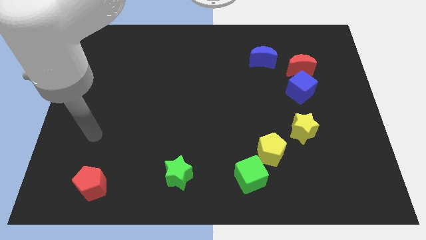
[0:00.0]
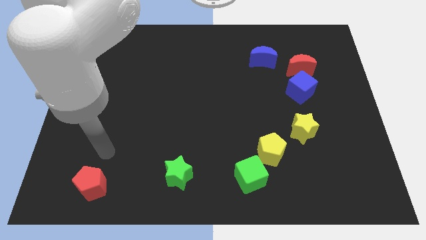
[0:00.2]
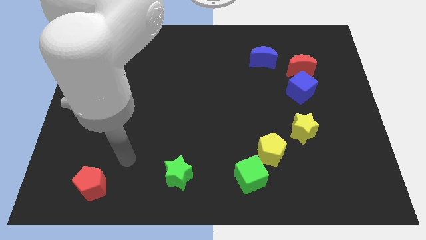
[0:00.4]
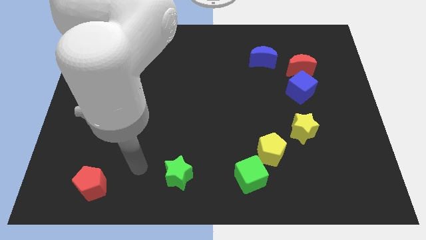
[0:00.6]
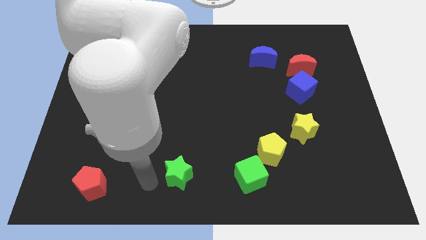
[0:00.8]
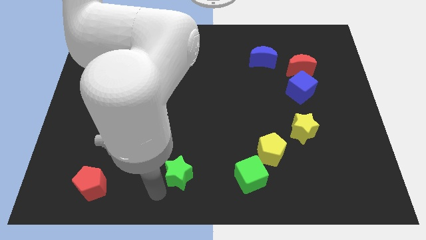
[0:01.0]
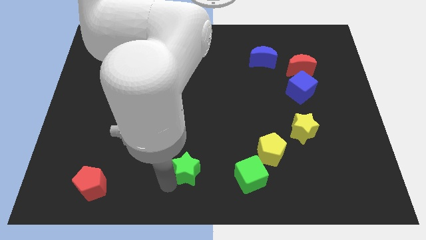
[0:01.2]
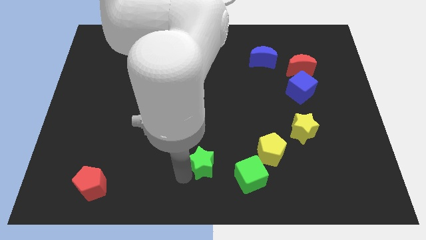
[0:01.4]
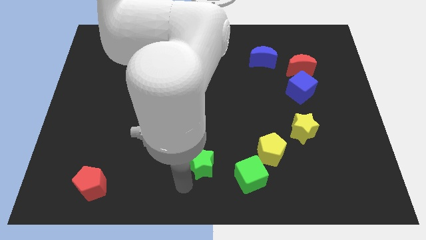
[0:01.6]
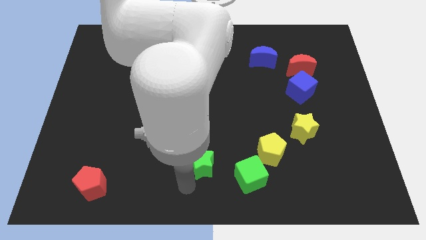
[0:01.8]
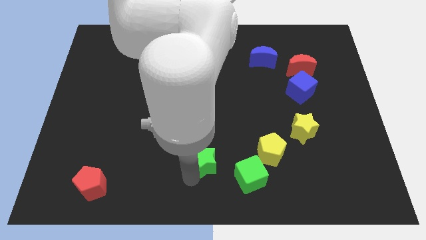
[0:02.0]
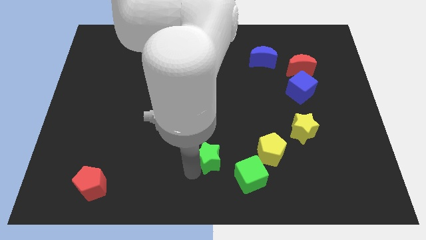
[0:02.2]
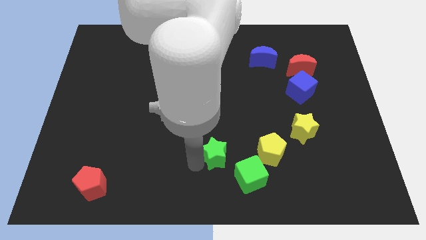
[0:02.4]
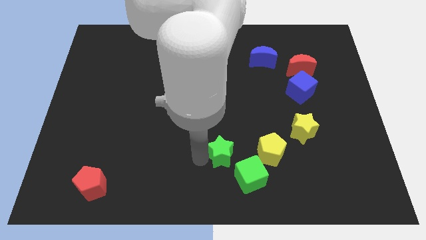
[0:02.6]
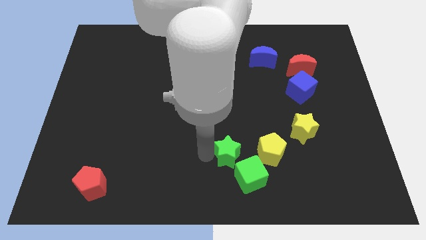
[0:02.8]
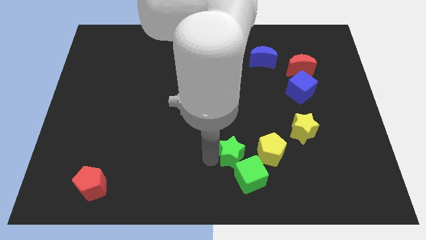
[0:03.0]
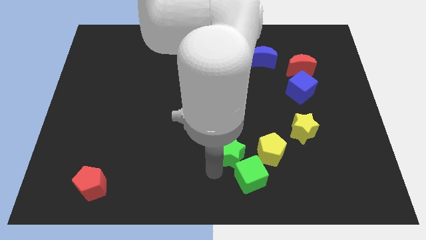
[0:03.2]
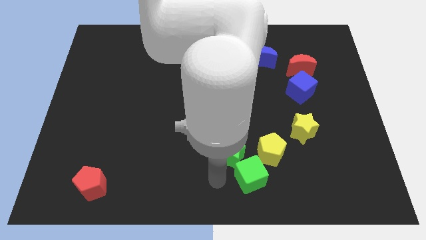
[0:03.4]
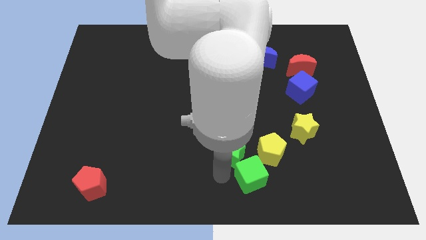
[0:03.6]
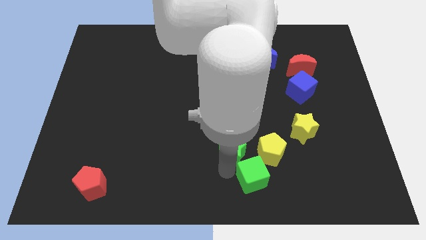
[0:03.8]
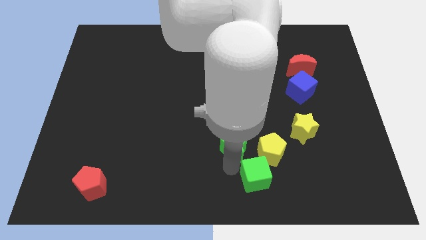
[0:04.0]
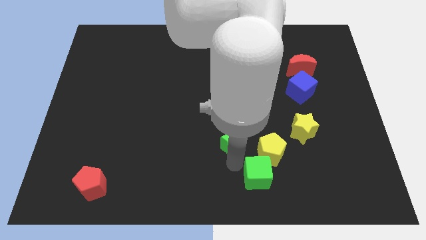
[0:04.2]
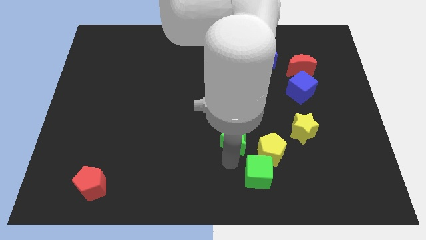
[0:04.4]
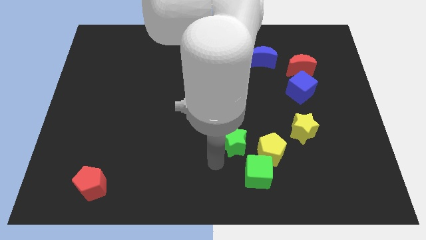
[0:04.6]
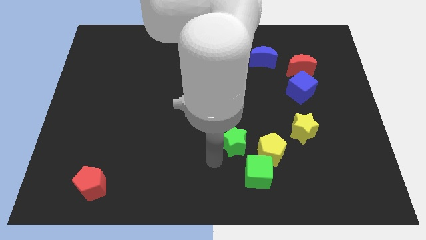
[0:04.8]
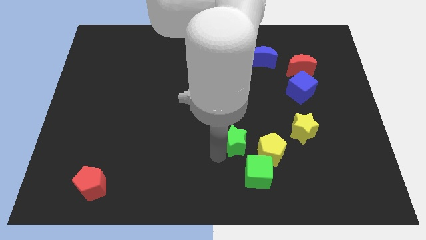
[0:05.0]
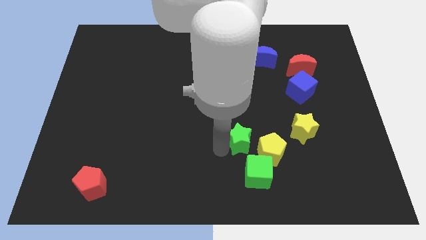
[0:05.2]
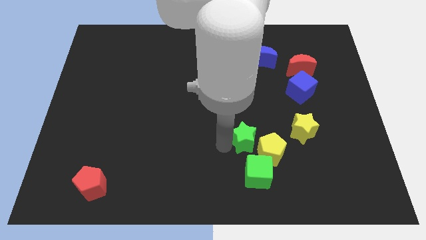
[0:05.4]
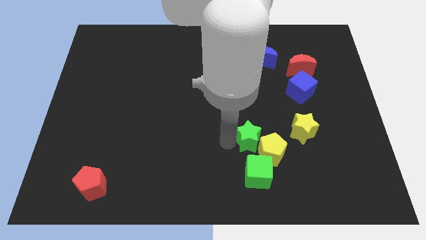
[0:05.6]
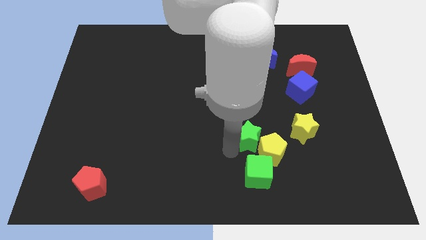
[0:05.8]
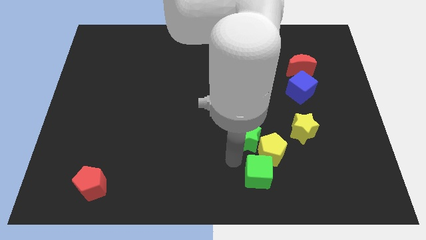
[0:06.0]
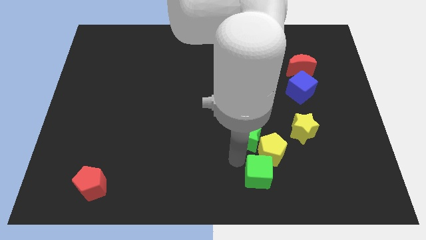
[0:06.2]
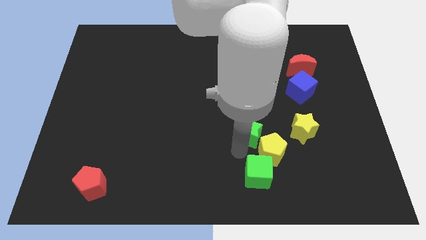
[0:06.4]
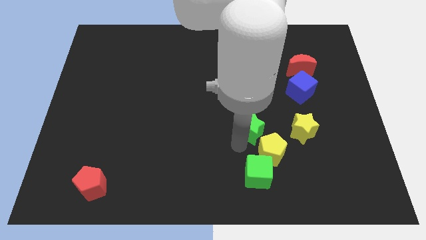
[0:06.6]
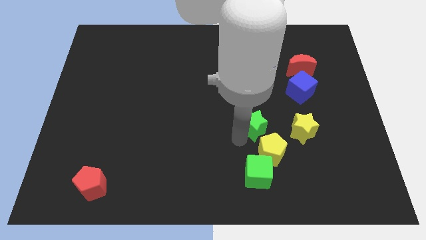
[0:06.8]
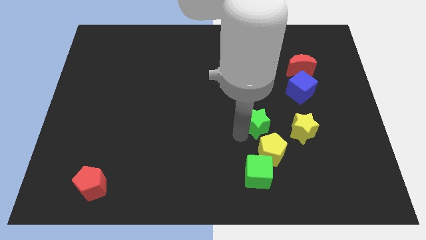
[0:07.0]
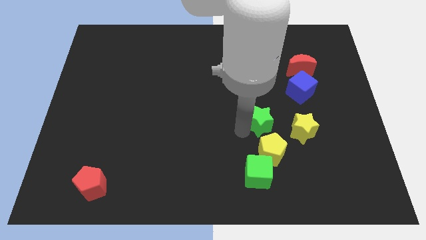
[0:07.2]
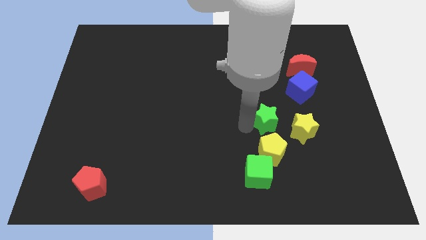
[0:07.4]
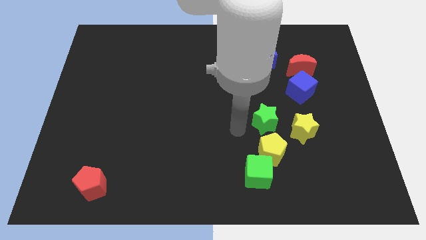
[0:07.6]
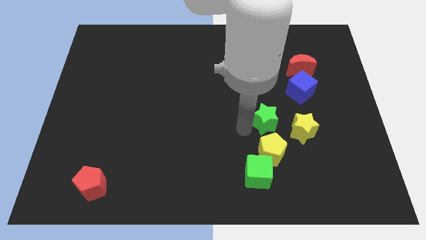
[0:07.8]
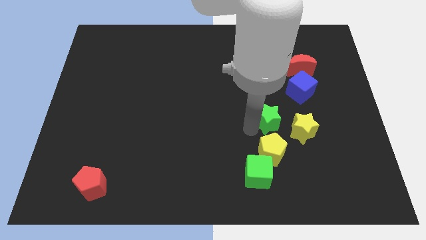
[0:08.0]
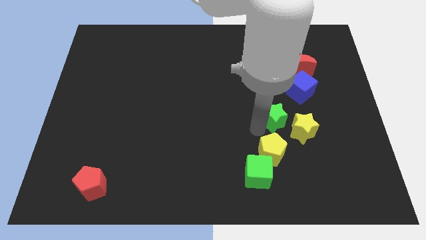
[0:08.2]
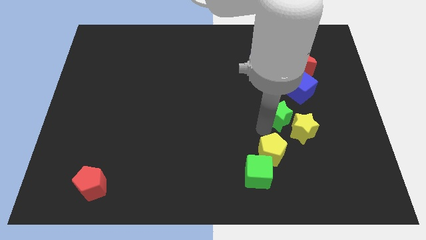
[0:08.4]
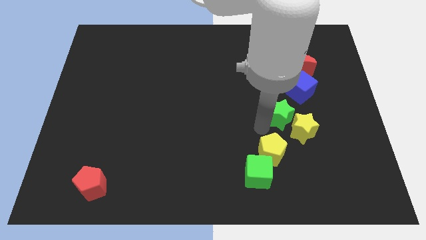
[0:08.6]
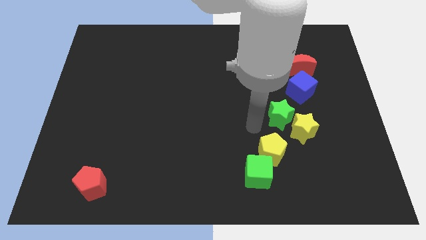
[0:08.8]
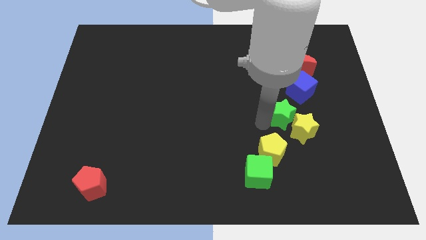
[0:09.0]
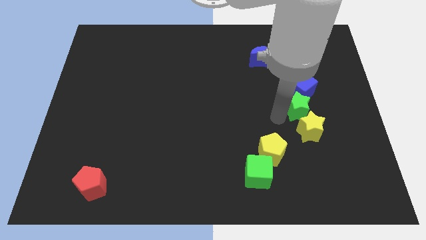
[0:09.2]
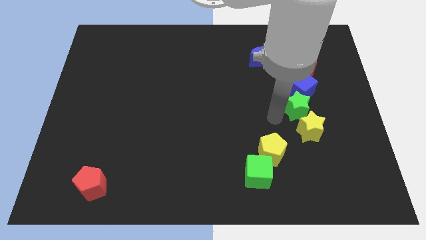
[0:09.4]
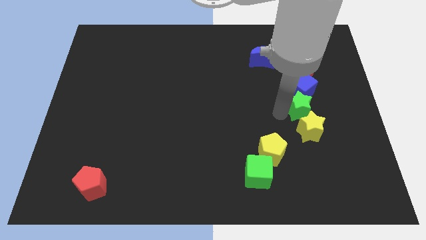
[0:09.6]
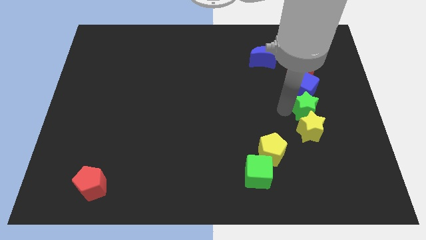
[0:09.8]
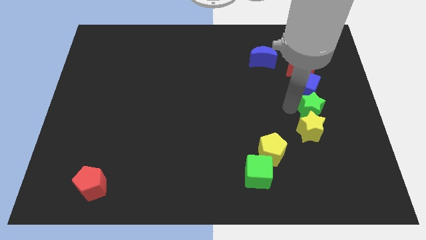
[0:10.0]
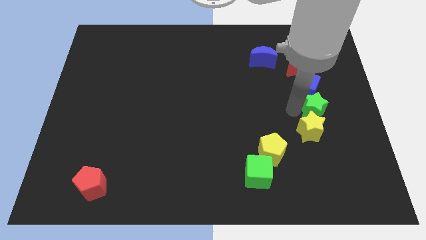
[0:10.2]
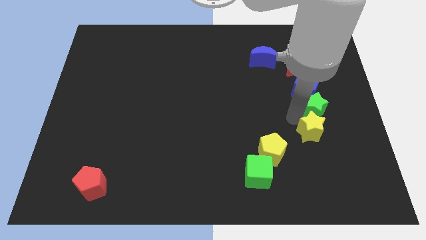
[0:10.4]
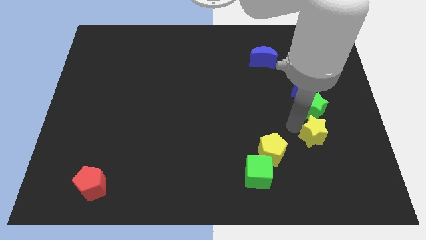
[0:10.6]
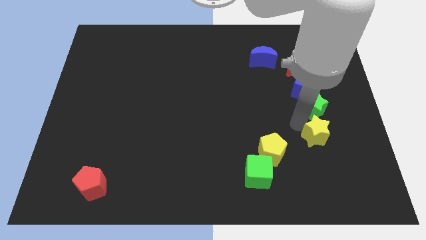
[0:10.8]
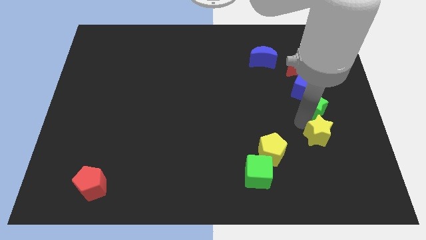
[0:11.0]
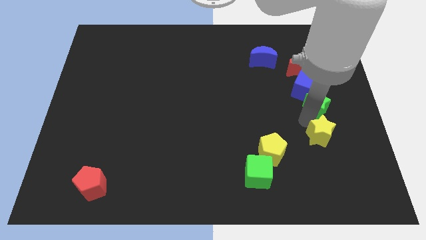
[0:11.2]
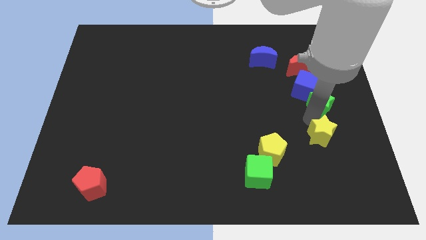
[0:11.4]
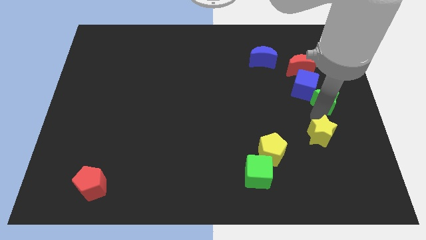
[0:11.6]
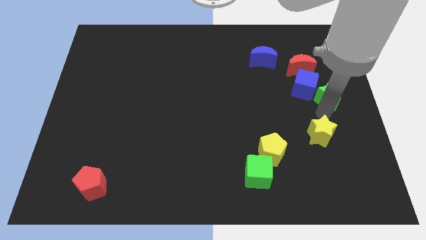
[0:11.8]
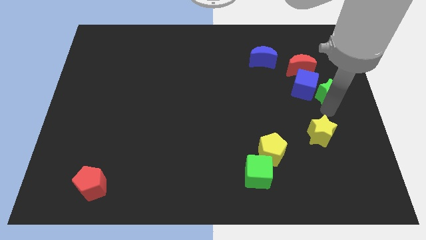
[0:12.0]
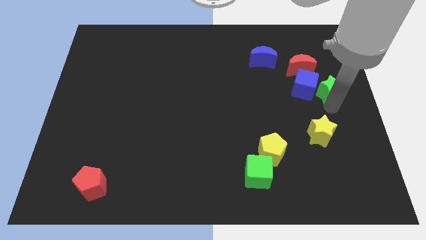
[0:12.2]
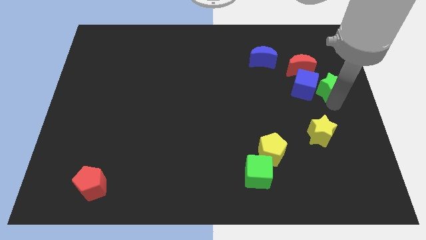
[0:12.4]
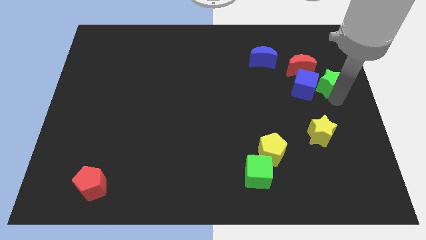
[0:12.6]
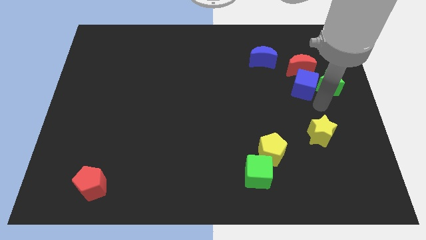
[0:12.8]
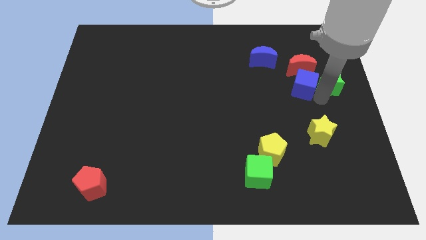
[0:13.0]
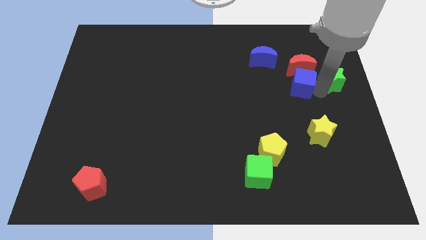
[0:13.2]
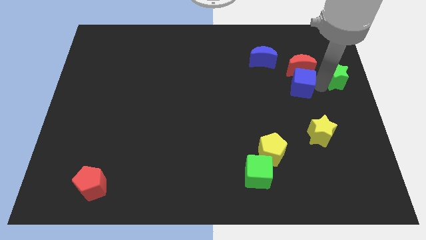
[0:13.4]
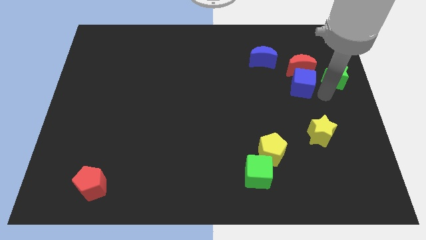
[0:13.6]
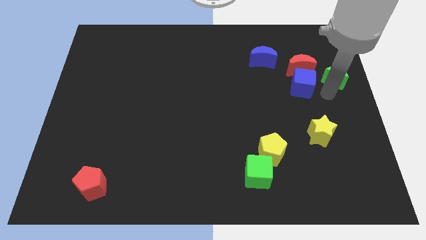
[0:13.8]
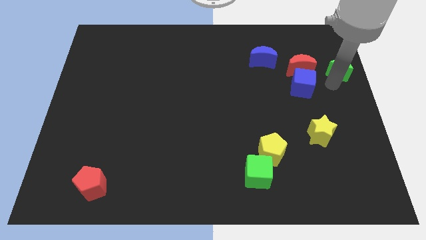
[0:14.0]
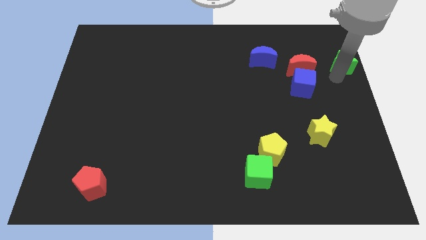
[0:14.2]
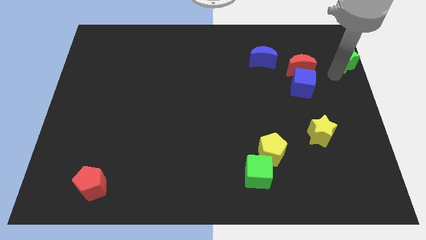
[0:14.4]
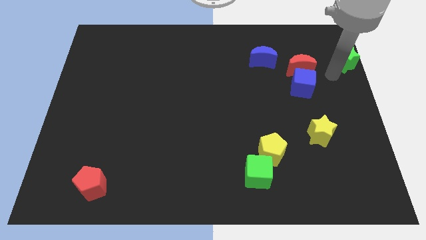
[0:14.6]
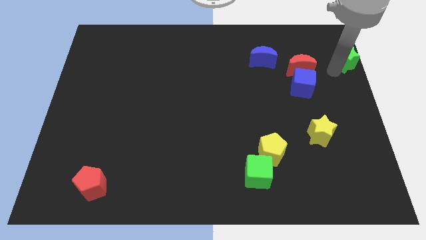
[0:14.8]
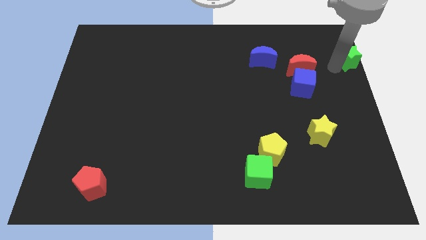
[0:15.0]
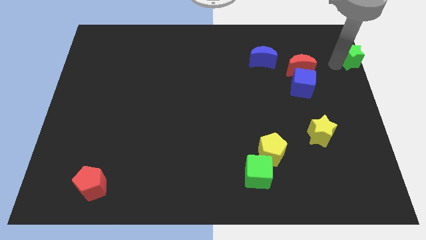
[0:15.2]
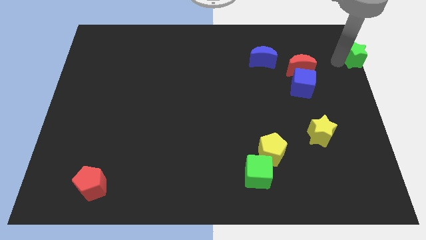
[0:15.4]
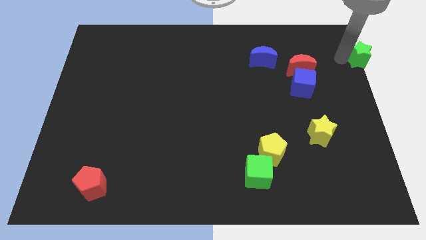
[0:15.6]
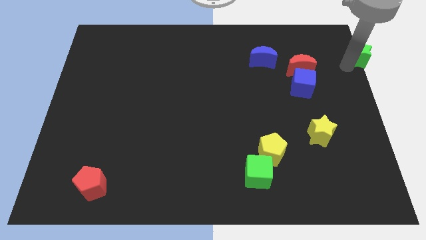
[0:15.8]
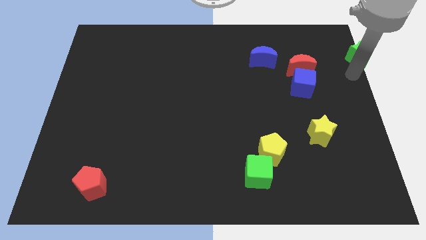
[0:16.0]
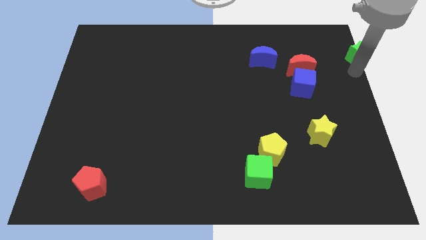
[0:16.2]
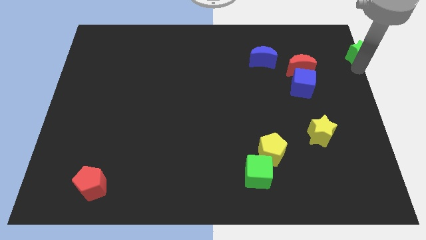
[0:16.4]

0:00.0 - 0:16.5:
slide the green star to the top right
